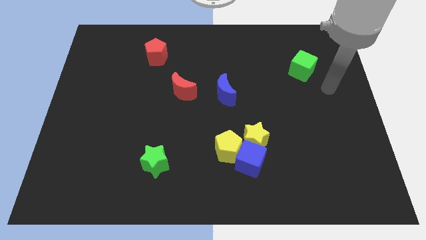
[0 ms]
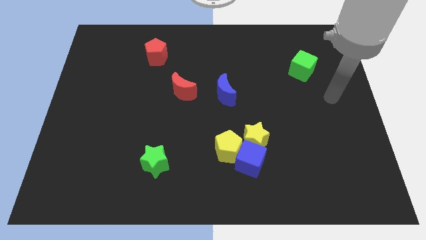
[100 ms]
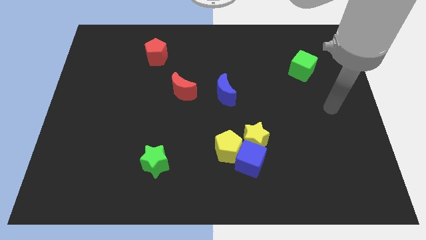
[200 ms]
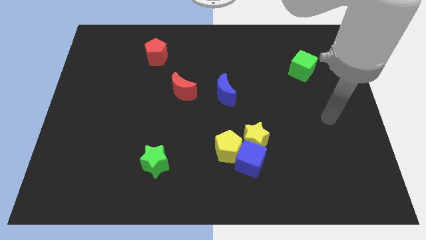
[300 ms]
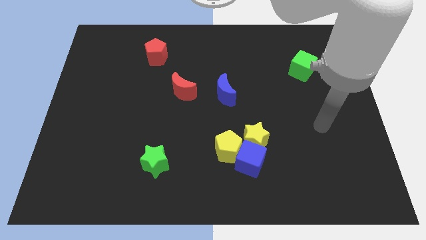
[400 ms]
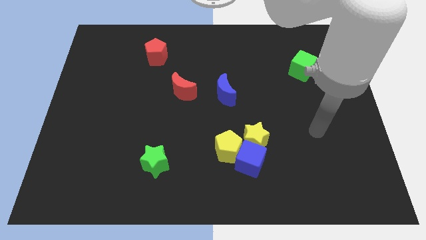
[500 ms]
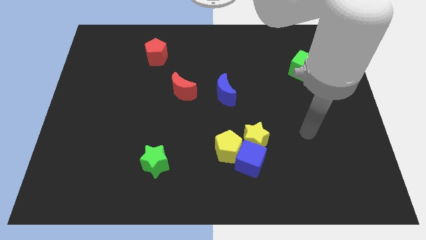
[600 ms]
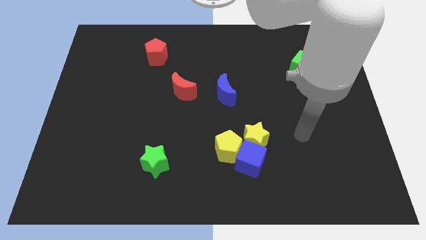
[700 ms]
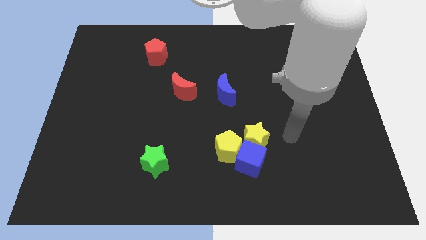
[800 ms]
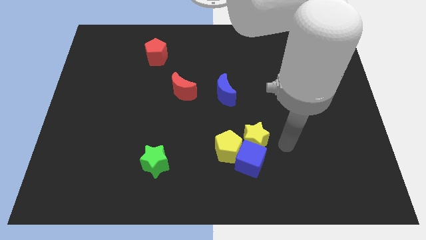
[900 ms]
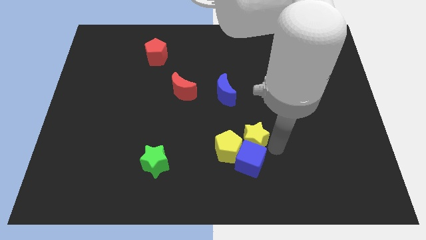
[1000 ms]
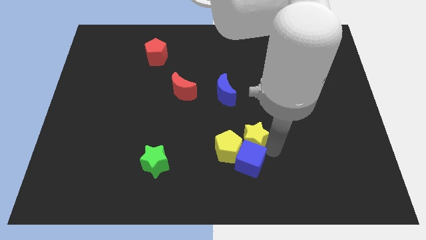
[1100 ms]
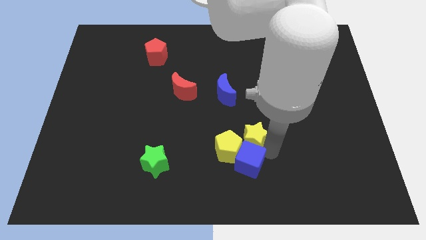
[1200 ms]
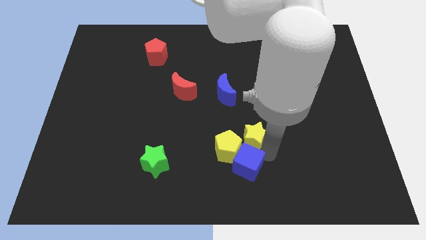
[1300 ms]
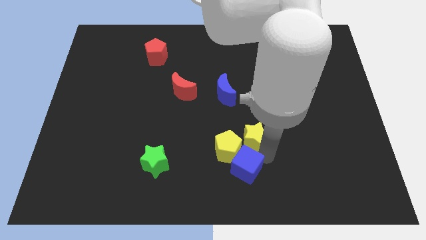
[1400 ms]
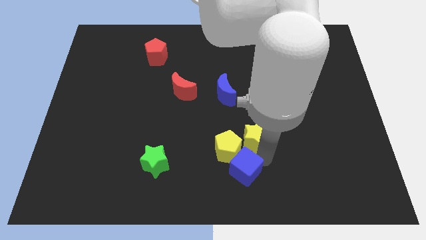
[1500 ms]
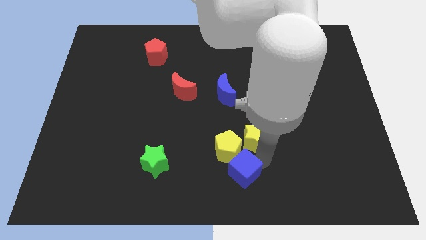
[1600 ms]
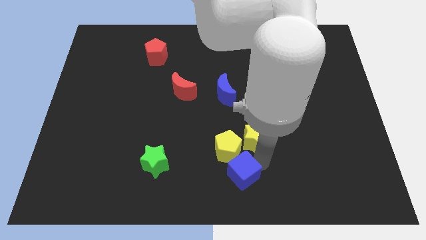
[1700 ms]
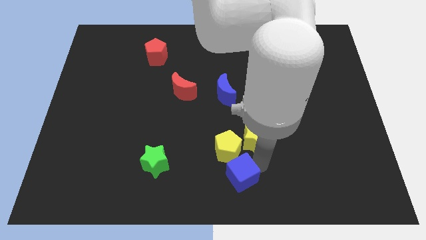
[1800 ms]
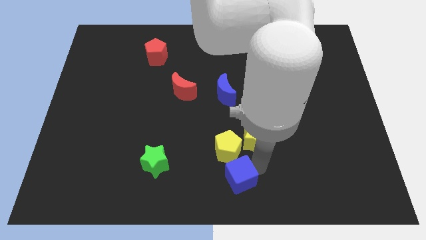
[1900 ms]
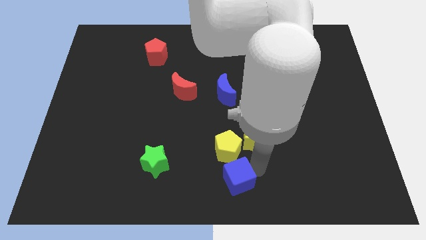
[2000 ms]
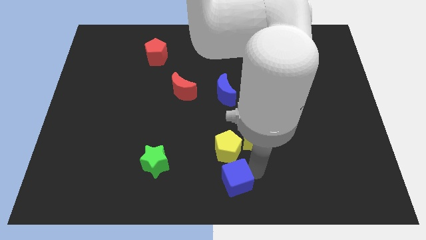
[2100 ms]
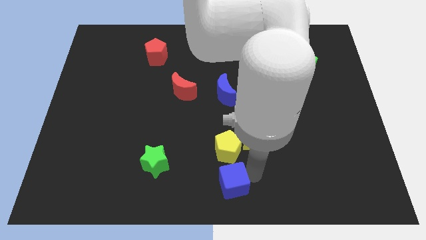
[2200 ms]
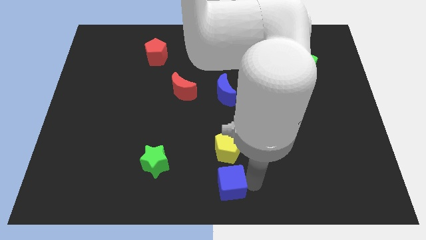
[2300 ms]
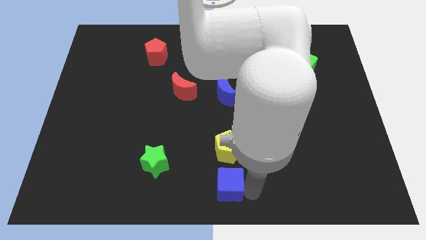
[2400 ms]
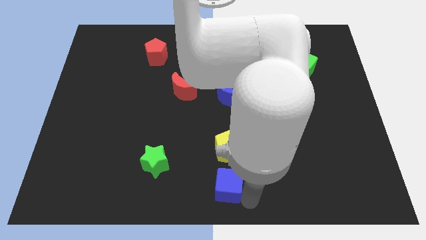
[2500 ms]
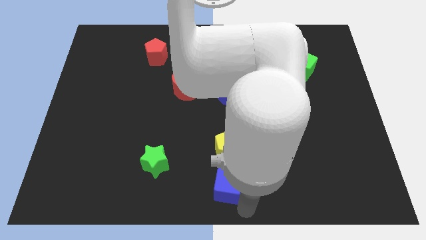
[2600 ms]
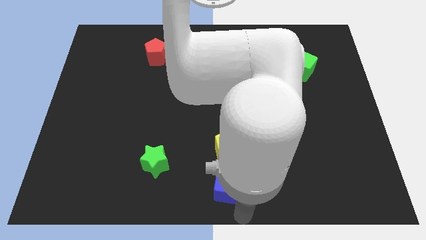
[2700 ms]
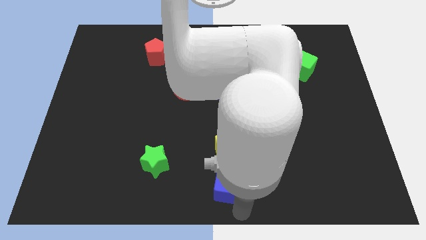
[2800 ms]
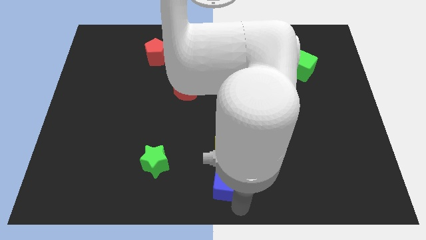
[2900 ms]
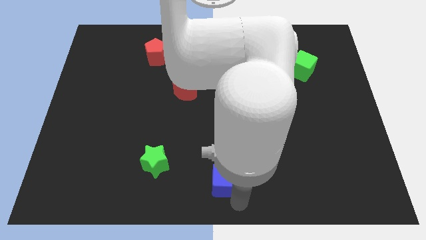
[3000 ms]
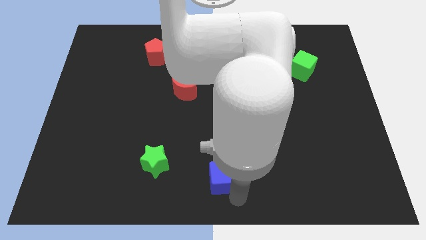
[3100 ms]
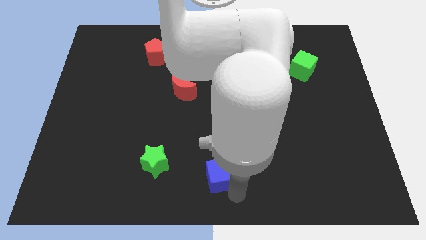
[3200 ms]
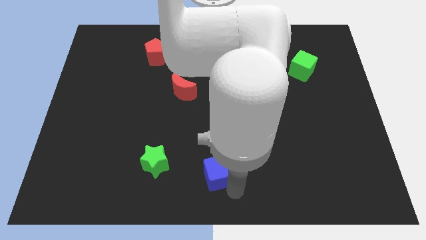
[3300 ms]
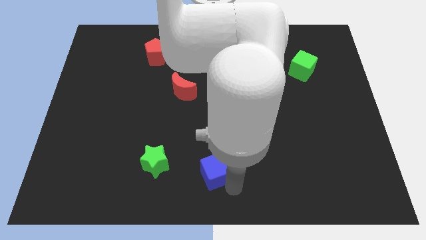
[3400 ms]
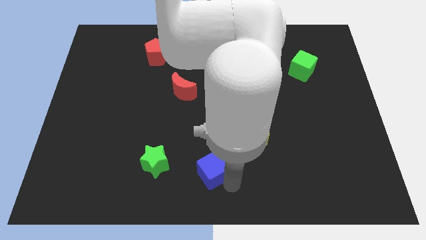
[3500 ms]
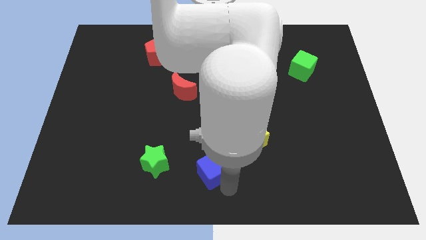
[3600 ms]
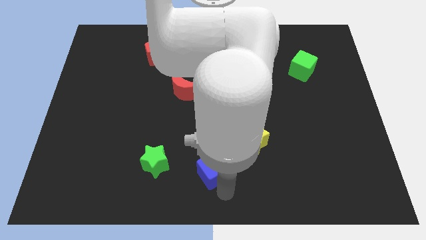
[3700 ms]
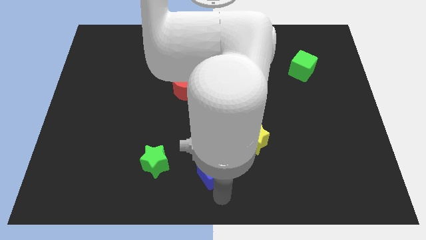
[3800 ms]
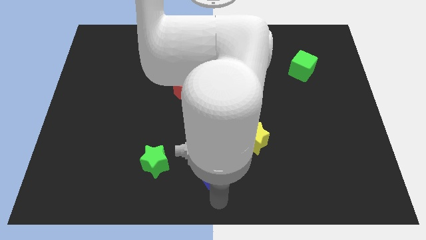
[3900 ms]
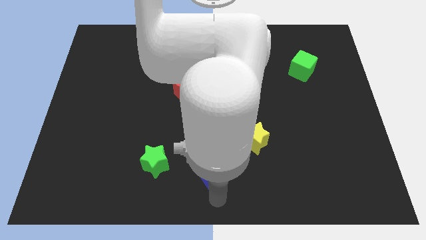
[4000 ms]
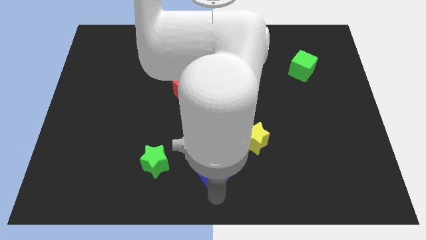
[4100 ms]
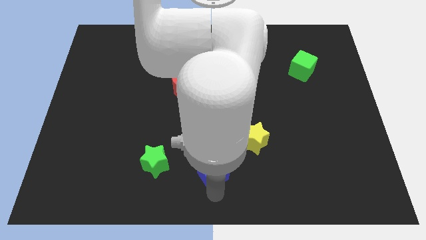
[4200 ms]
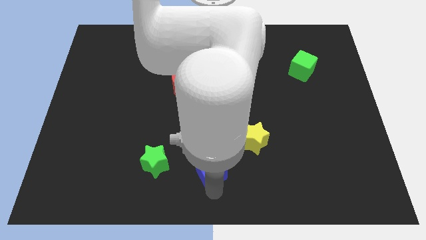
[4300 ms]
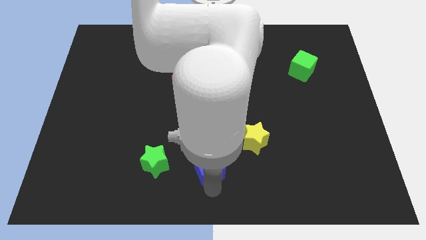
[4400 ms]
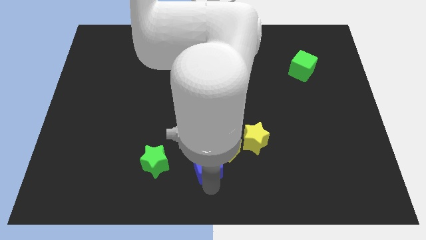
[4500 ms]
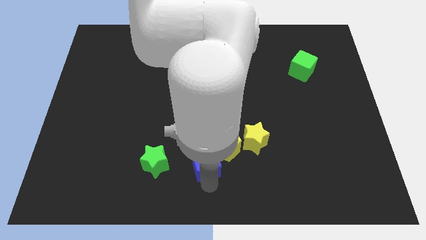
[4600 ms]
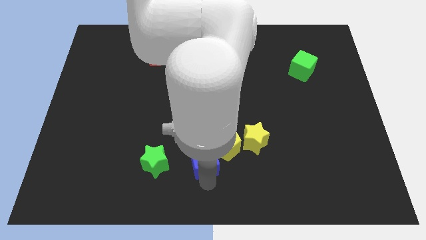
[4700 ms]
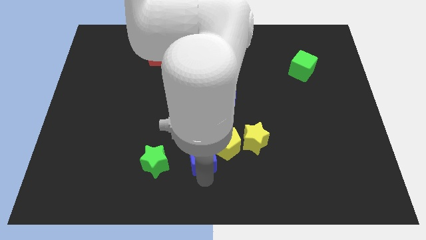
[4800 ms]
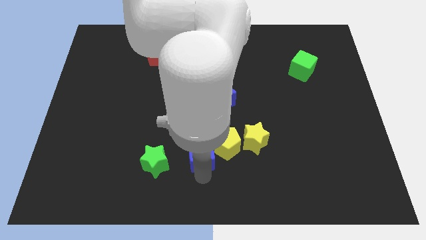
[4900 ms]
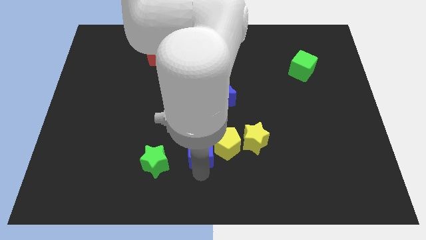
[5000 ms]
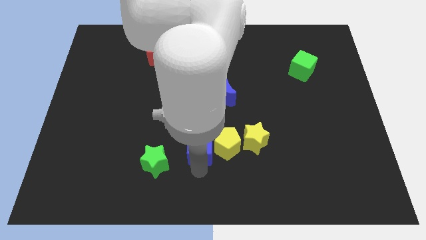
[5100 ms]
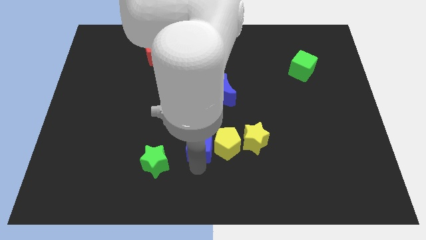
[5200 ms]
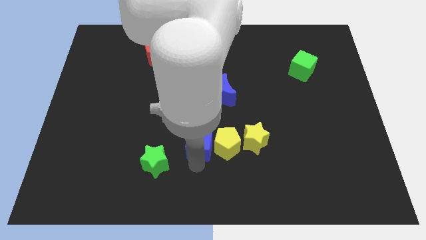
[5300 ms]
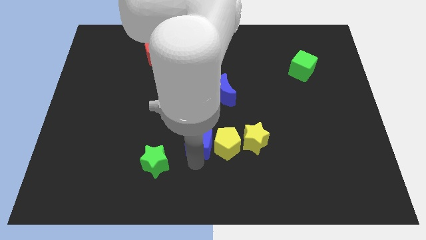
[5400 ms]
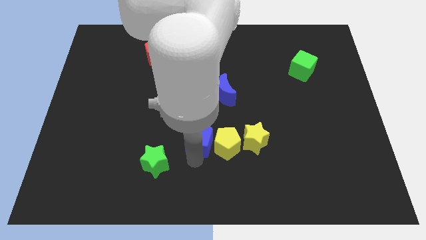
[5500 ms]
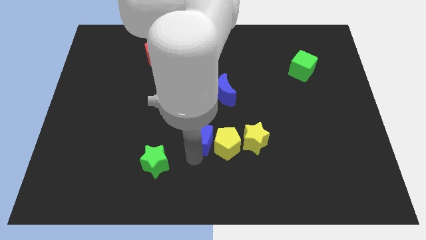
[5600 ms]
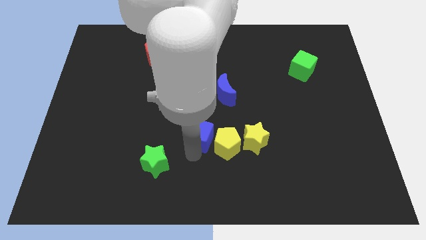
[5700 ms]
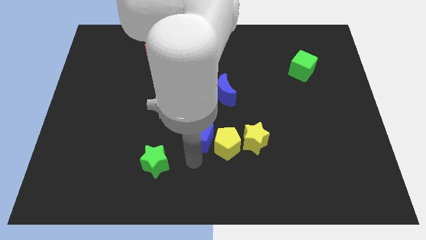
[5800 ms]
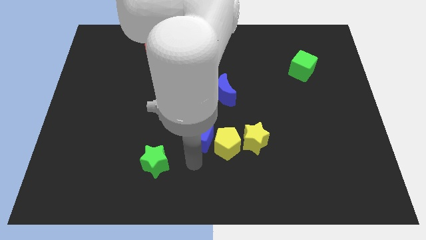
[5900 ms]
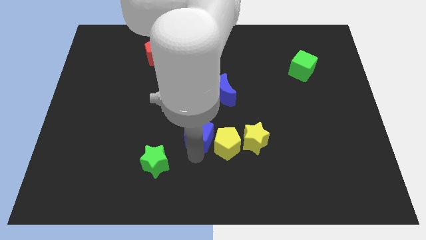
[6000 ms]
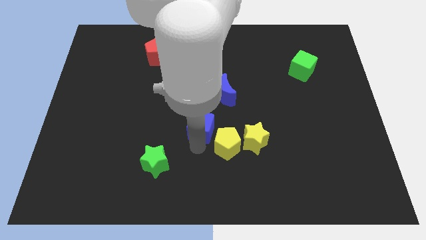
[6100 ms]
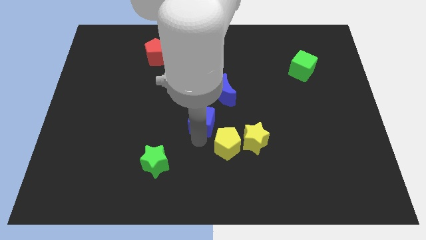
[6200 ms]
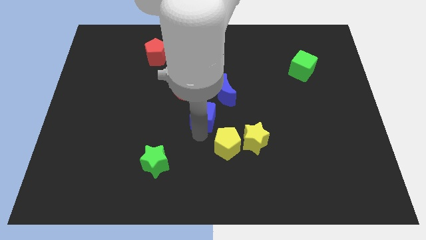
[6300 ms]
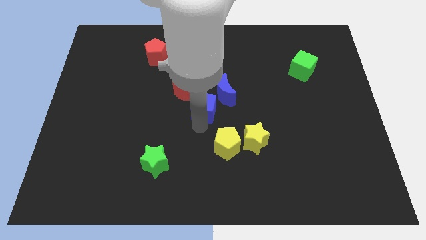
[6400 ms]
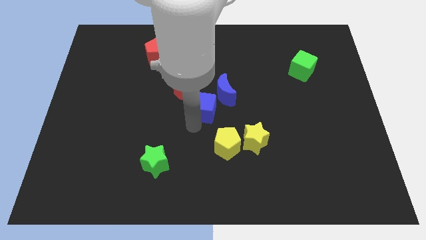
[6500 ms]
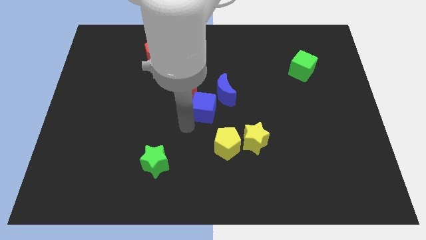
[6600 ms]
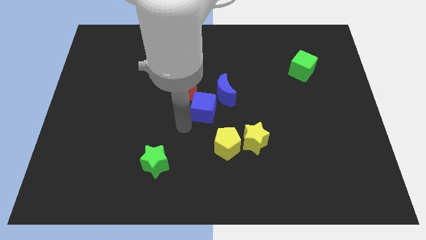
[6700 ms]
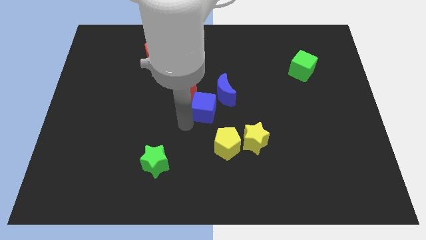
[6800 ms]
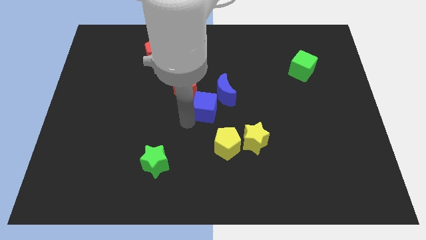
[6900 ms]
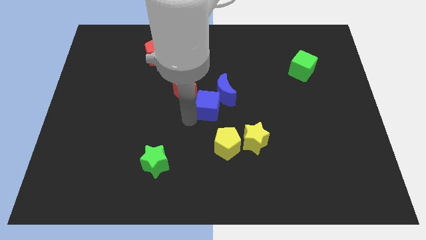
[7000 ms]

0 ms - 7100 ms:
slide the blue cube to the blue moon
